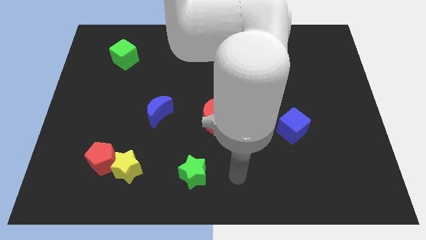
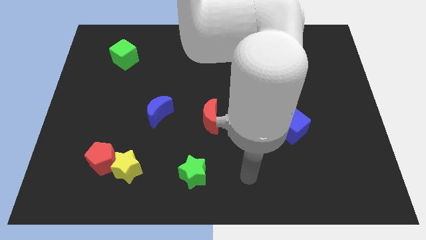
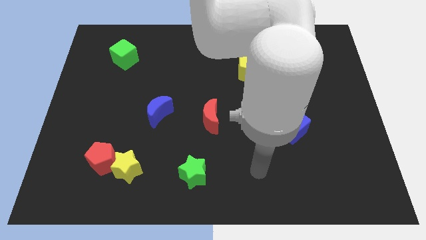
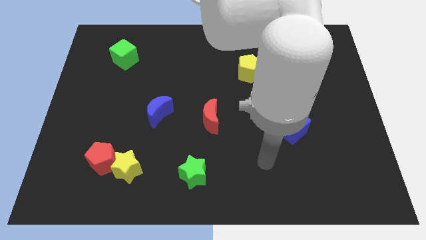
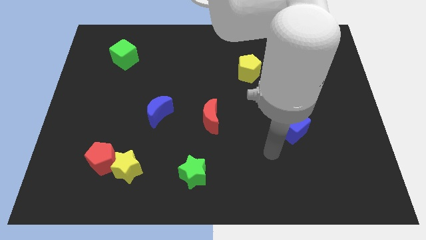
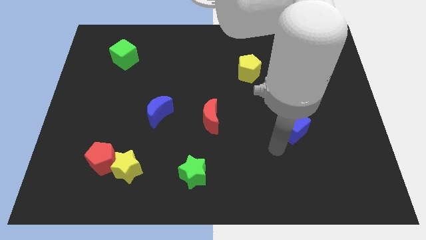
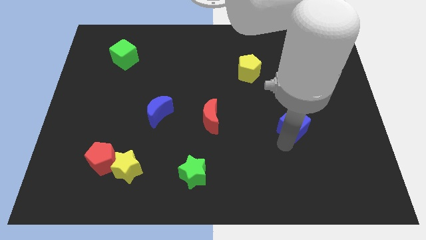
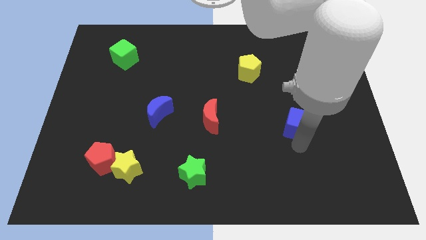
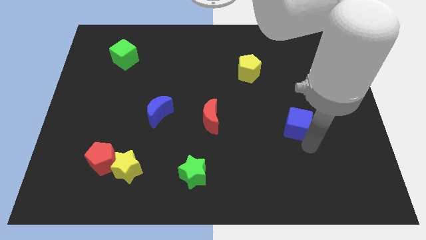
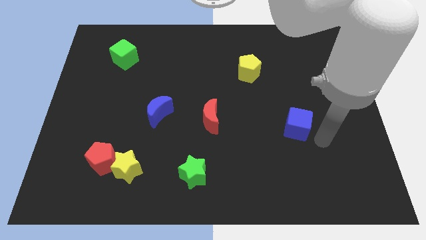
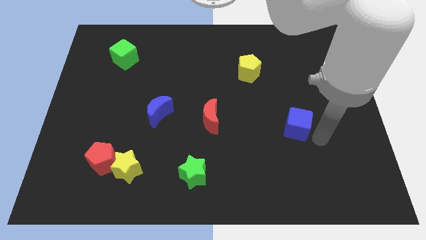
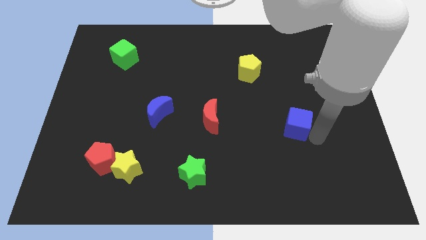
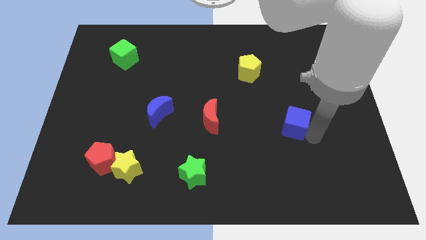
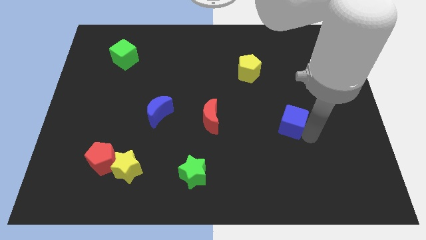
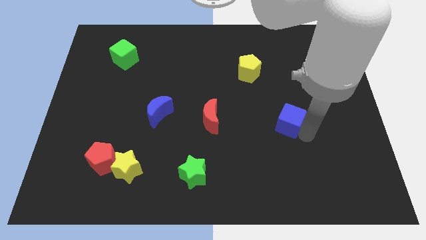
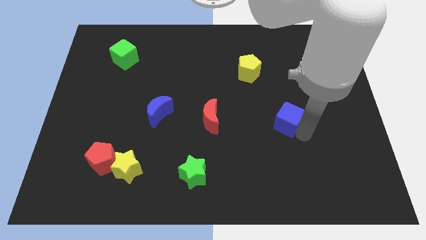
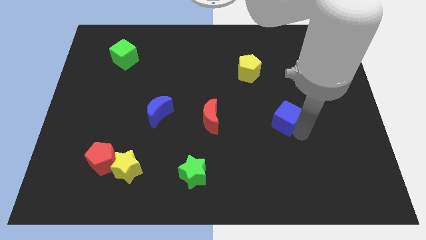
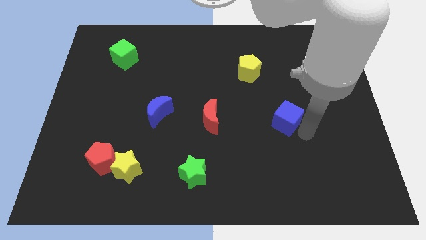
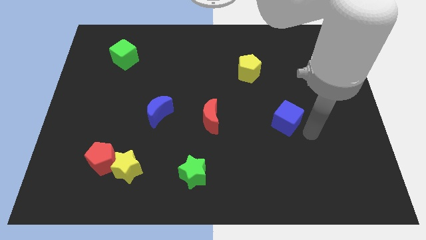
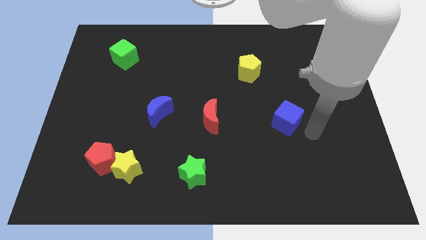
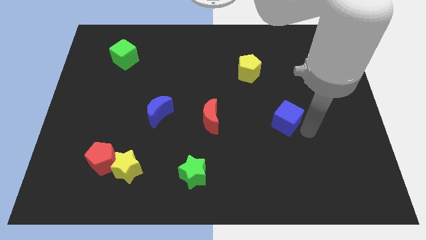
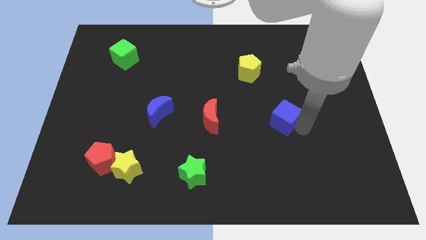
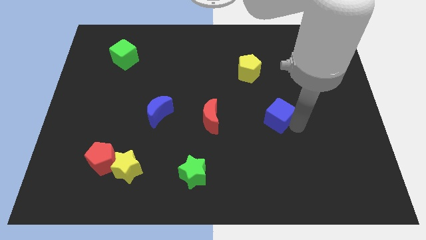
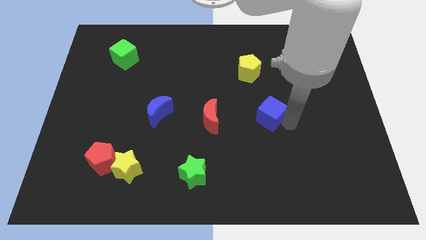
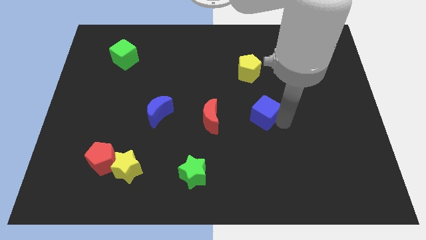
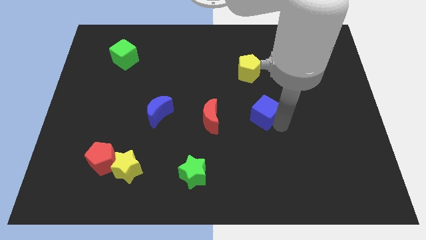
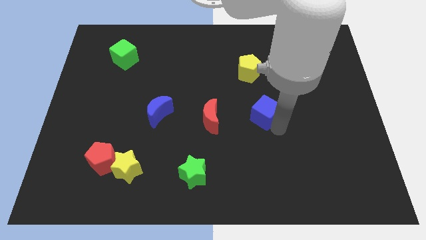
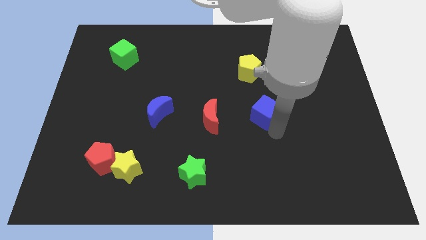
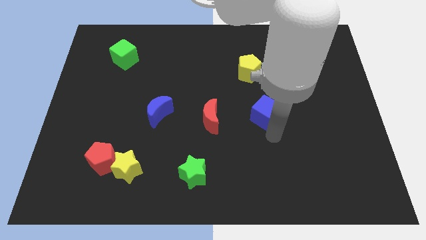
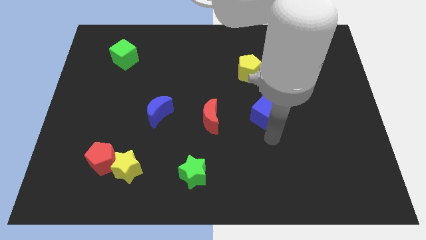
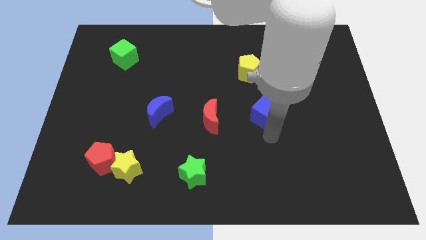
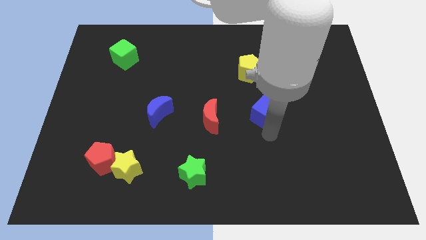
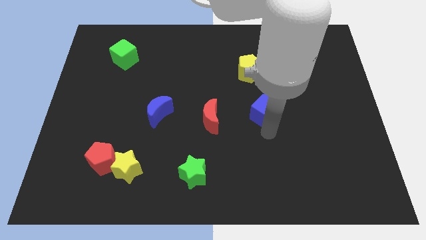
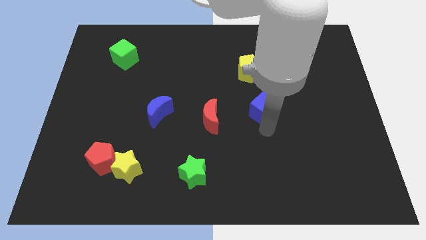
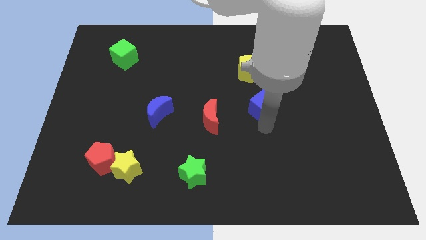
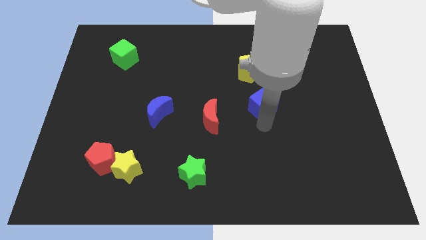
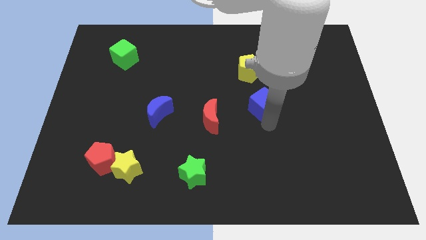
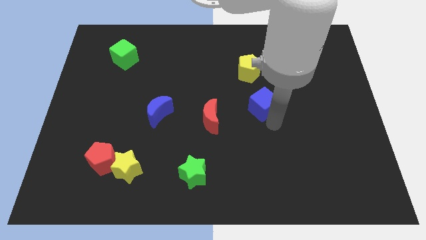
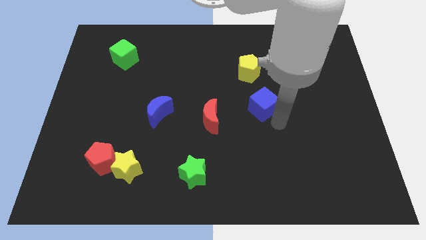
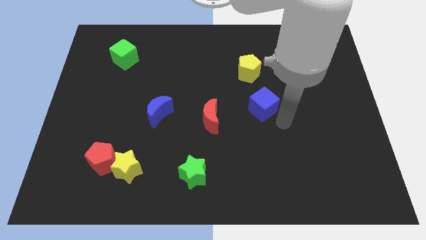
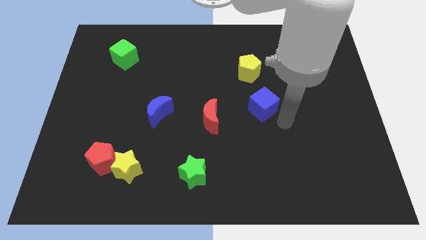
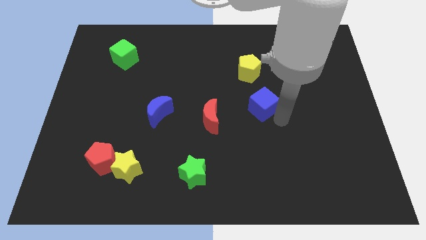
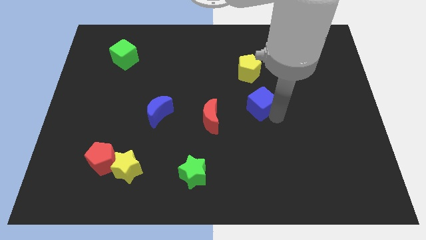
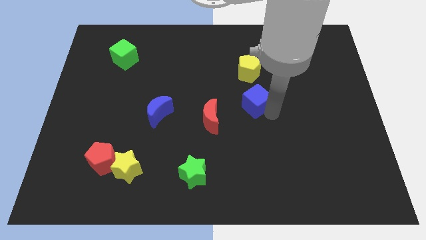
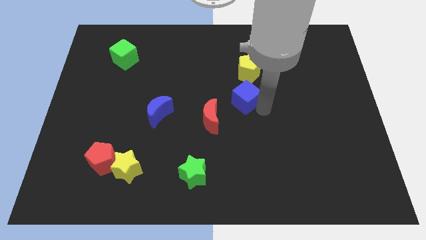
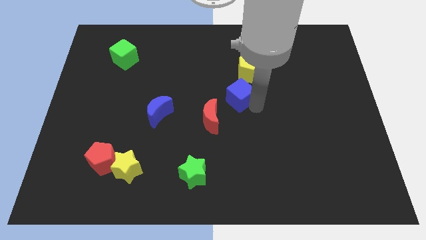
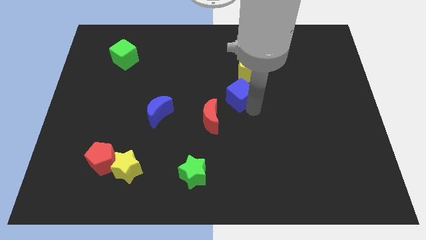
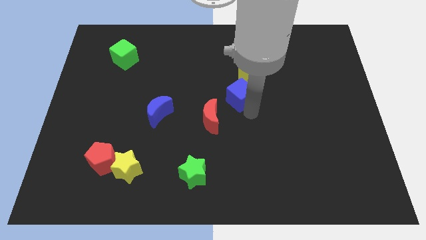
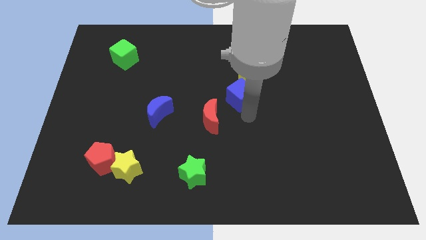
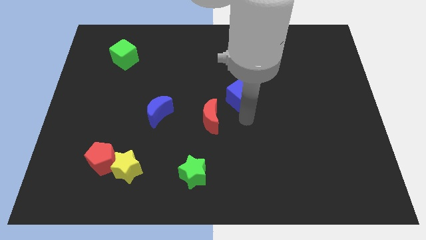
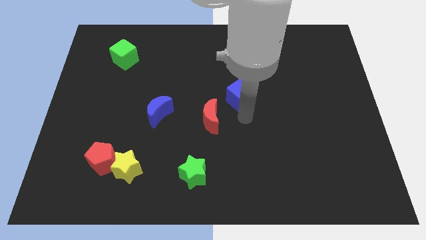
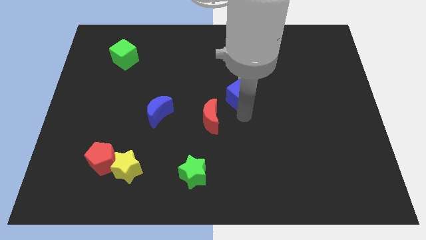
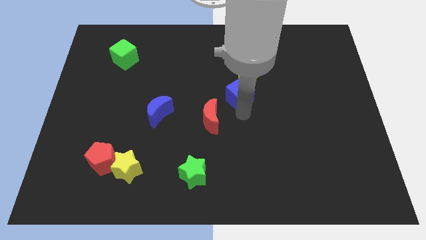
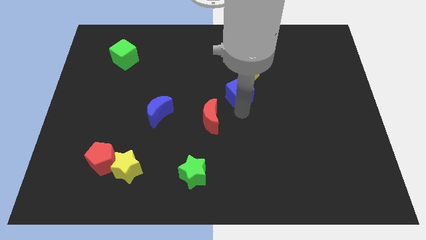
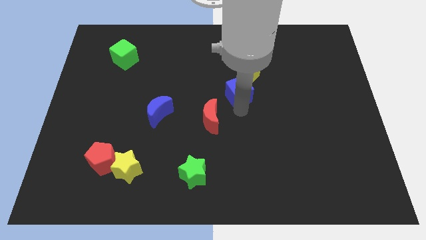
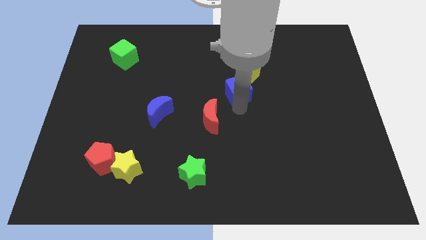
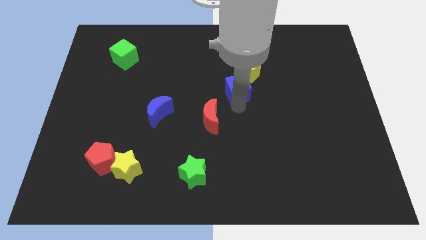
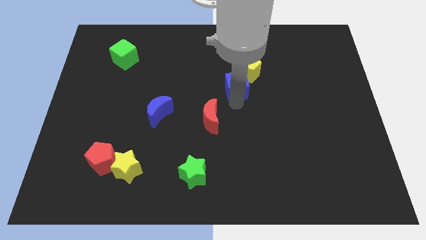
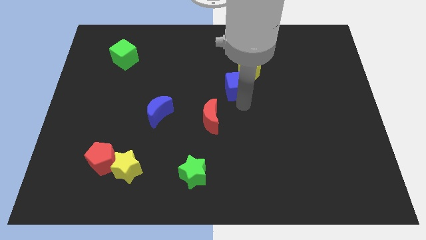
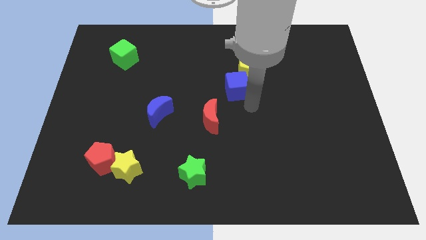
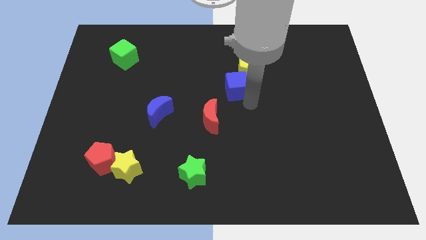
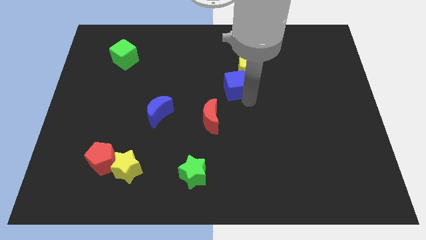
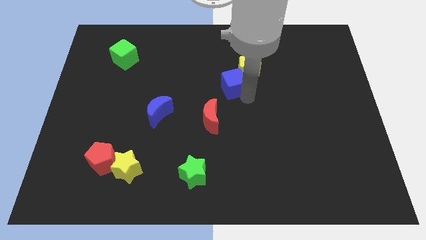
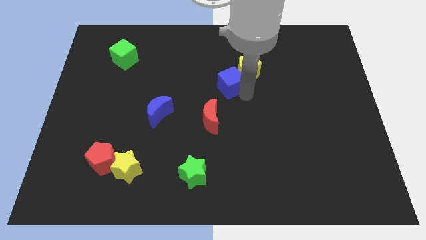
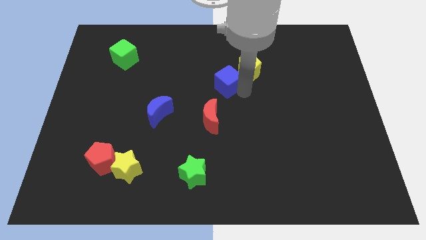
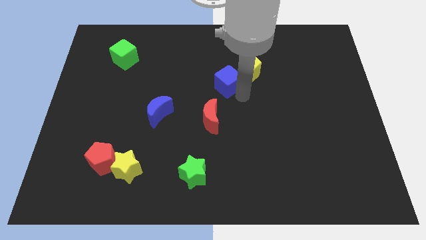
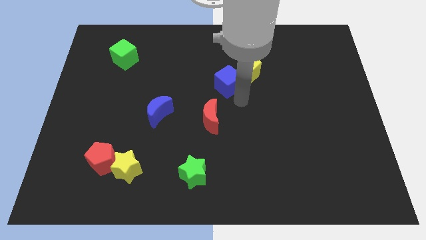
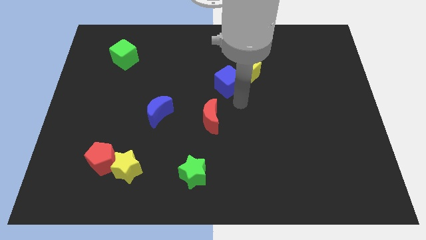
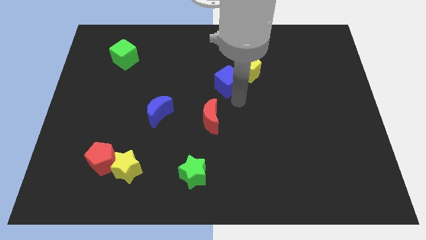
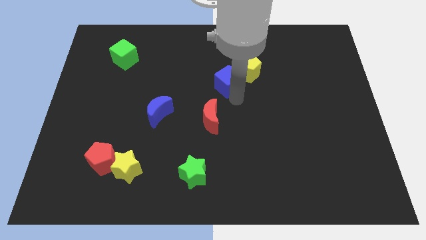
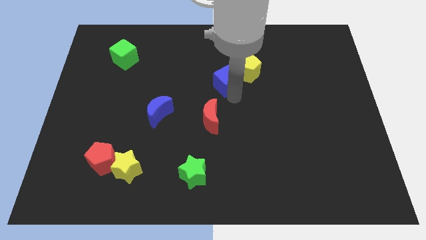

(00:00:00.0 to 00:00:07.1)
move the blue cube upwards and left

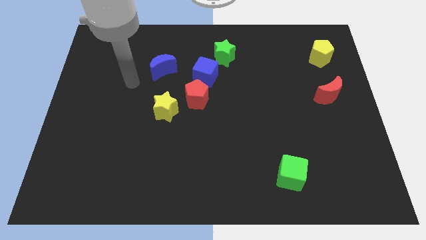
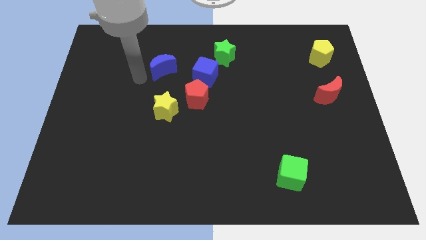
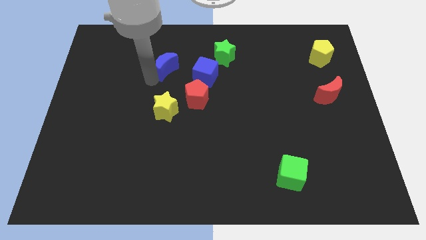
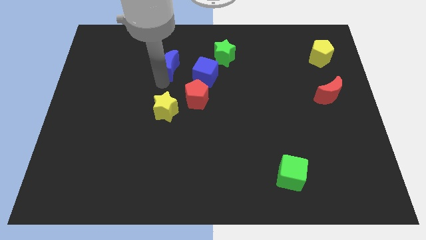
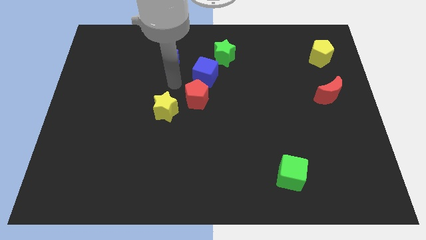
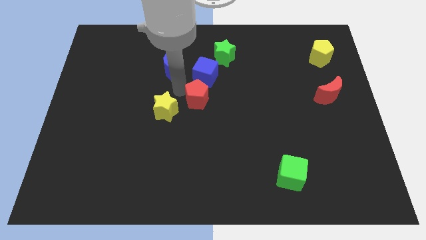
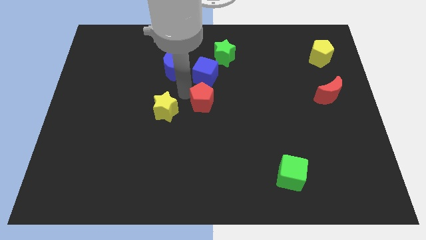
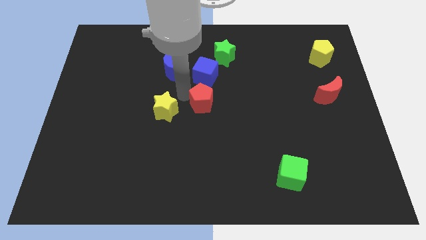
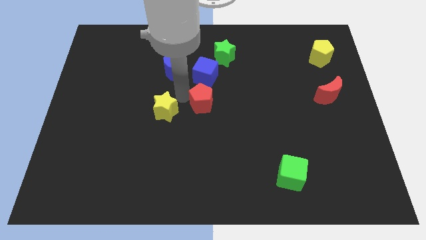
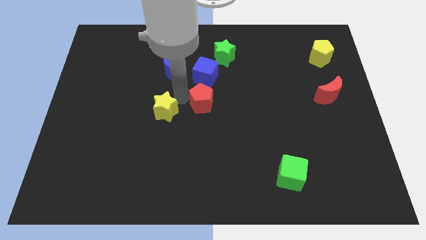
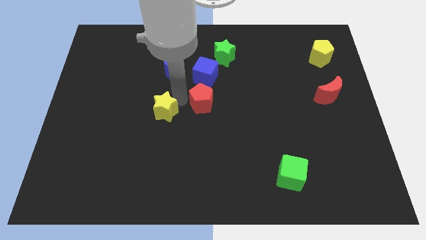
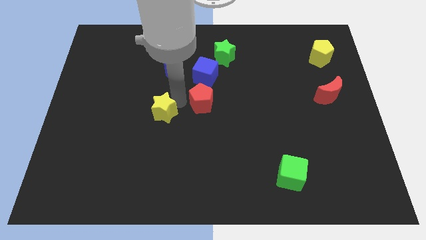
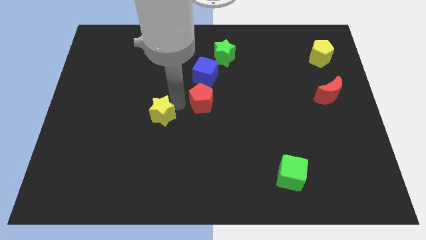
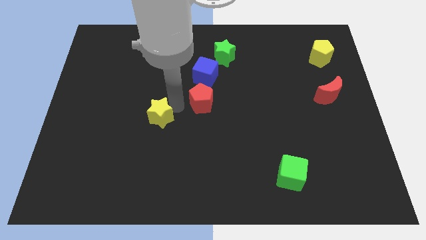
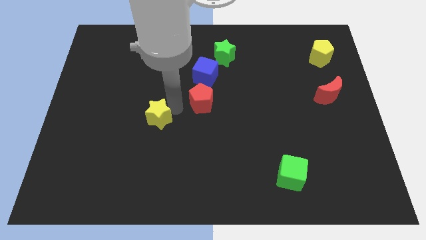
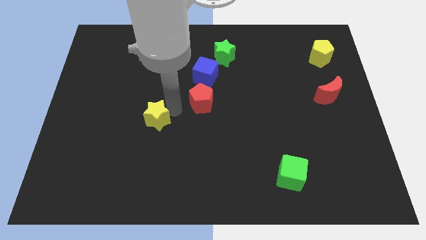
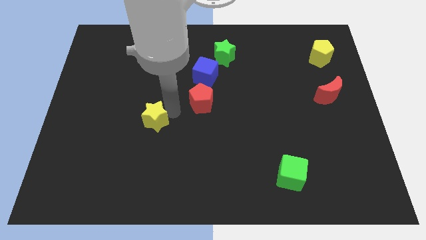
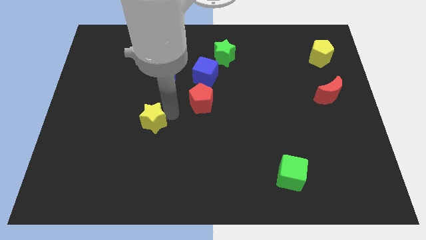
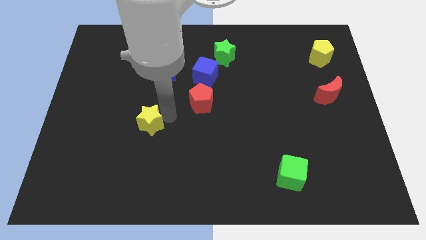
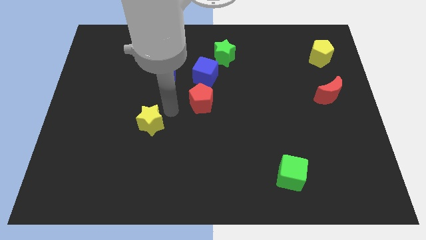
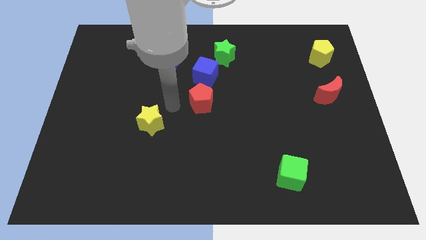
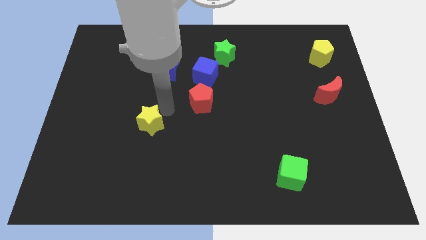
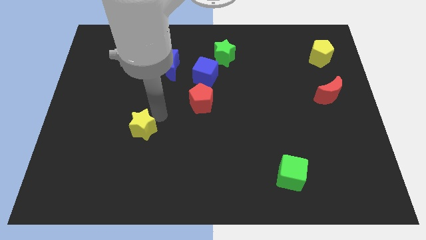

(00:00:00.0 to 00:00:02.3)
slide the yellow star downwards and left a little bit
